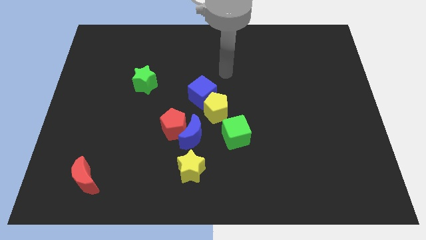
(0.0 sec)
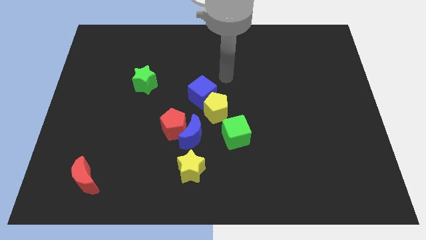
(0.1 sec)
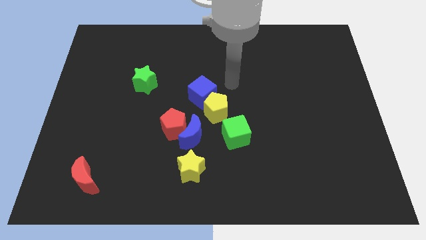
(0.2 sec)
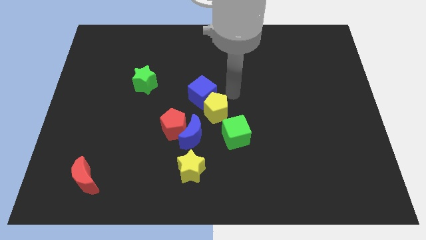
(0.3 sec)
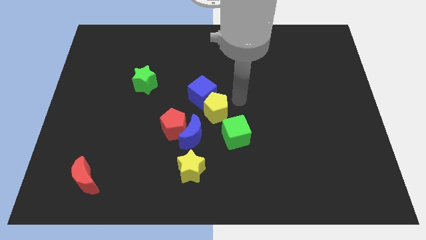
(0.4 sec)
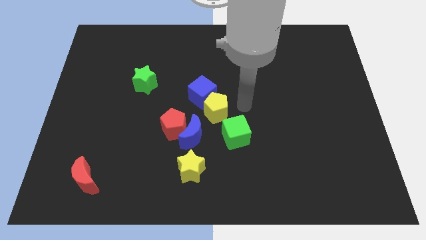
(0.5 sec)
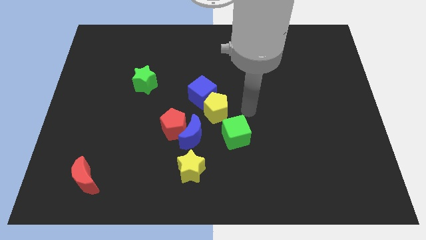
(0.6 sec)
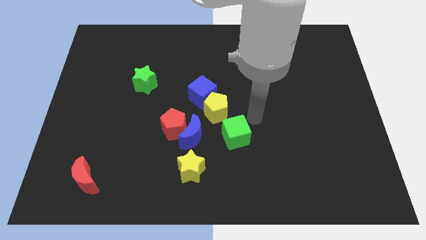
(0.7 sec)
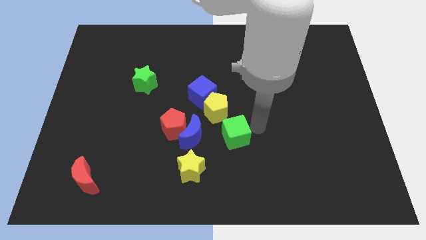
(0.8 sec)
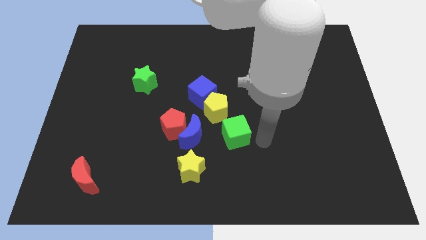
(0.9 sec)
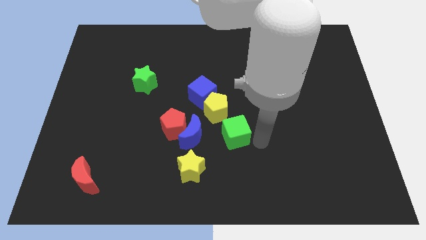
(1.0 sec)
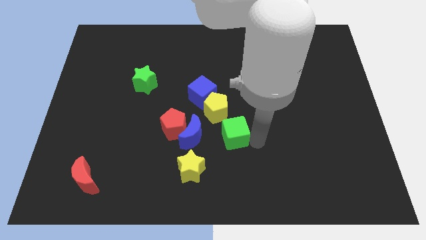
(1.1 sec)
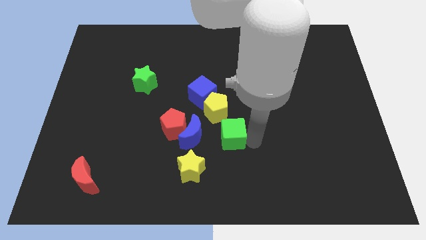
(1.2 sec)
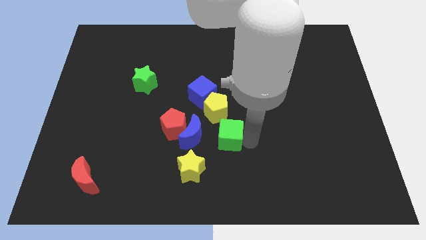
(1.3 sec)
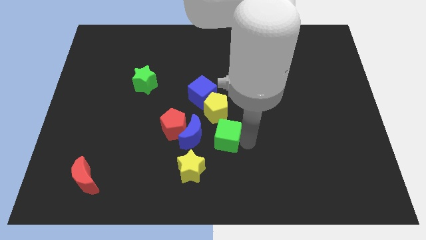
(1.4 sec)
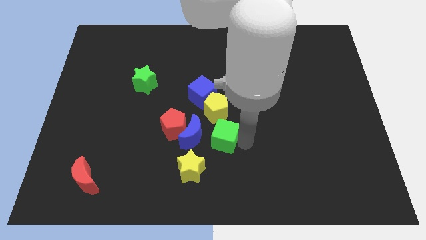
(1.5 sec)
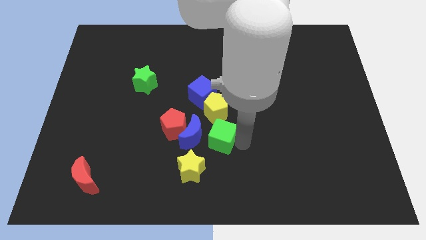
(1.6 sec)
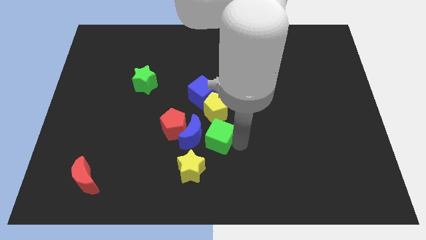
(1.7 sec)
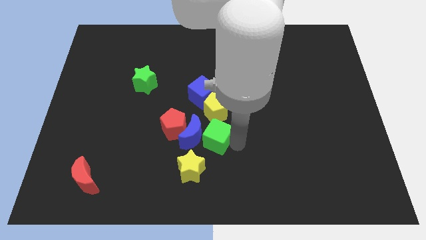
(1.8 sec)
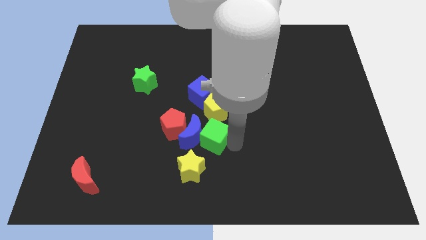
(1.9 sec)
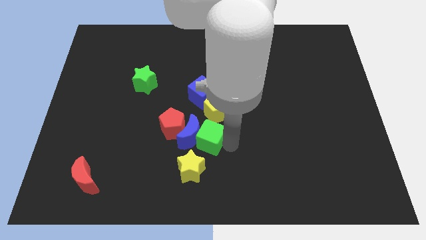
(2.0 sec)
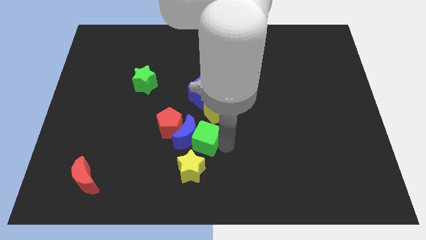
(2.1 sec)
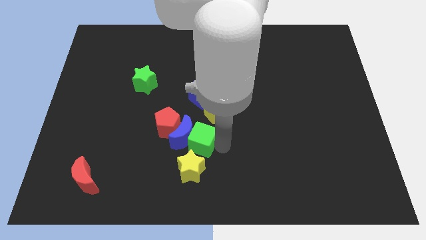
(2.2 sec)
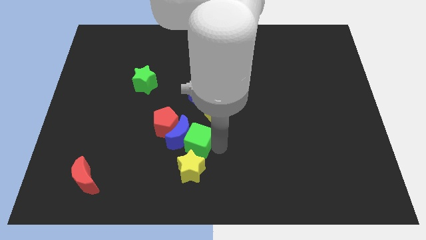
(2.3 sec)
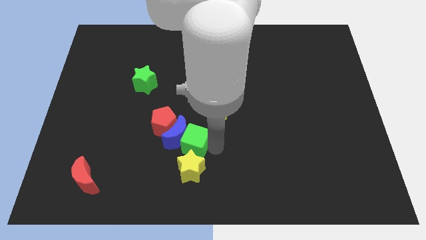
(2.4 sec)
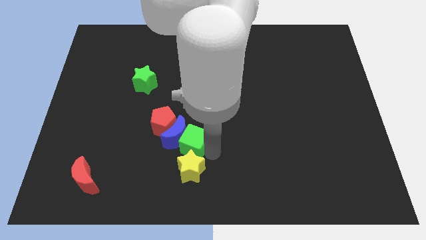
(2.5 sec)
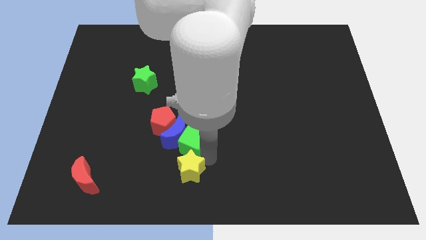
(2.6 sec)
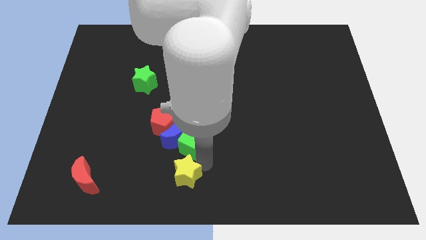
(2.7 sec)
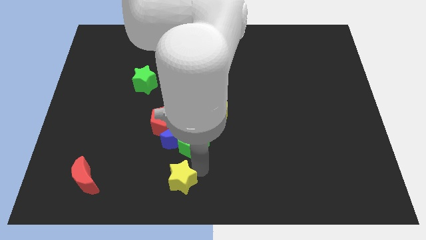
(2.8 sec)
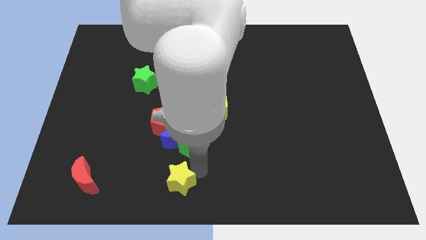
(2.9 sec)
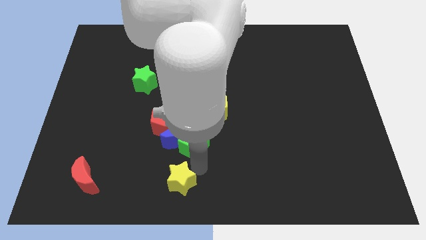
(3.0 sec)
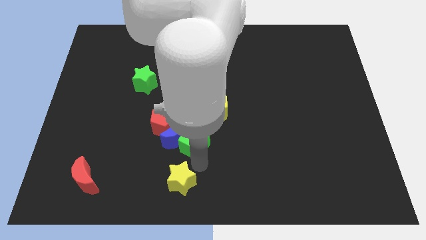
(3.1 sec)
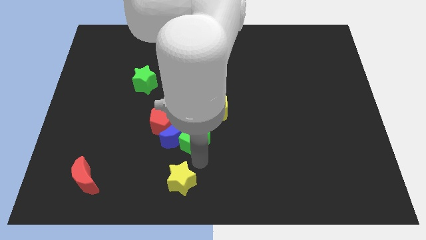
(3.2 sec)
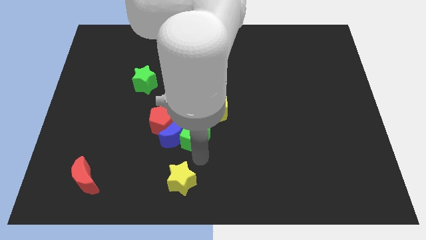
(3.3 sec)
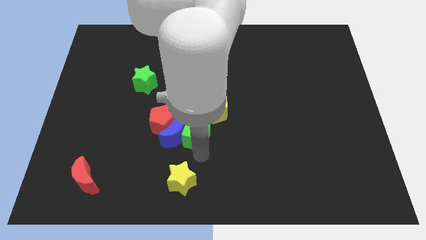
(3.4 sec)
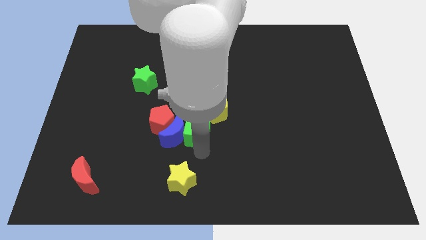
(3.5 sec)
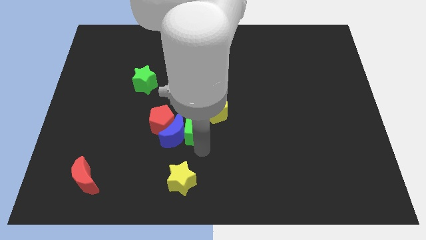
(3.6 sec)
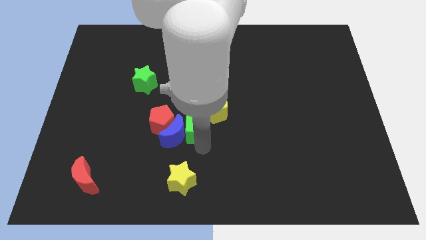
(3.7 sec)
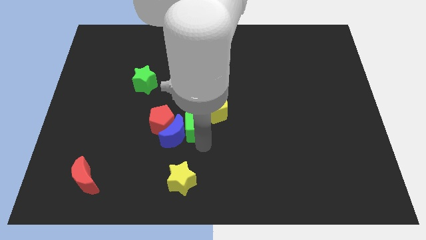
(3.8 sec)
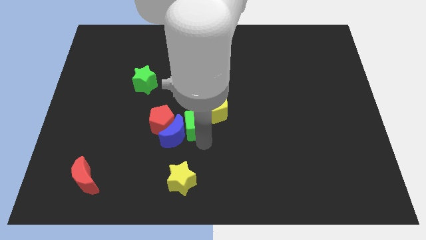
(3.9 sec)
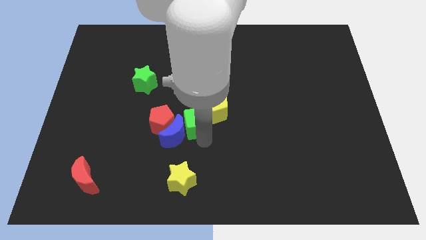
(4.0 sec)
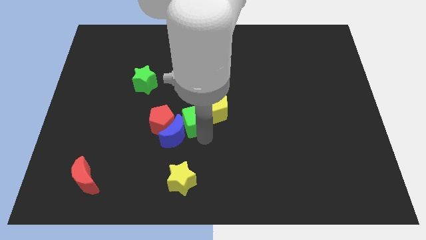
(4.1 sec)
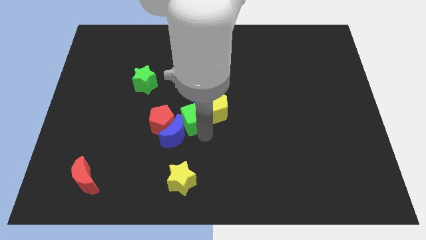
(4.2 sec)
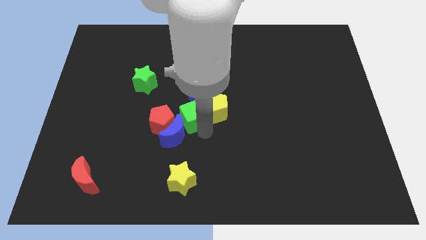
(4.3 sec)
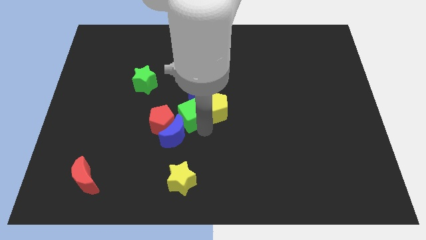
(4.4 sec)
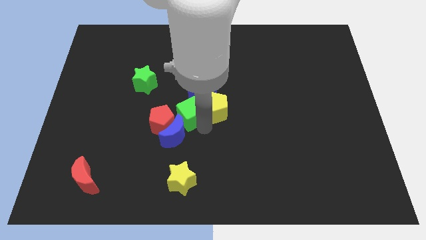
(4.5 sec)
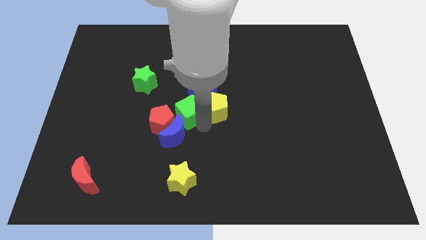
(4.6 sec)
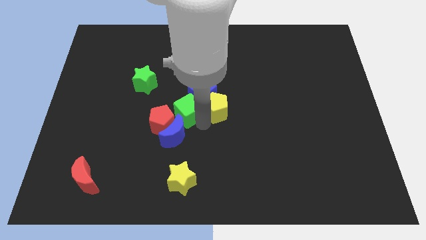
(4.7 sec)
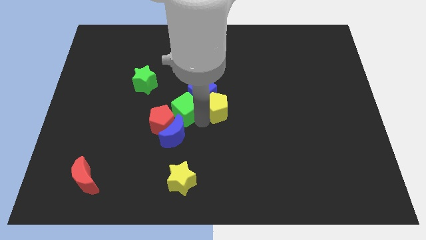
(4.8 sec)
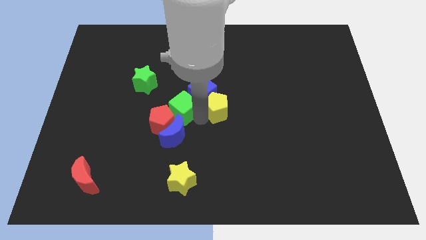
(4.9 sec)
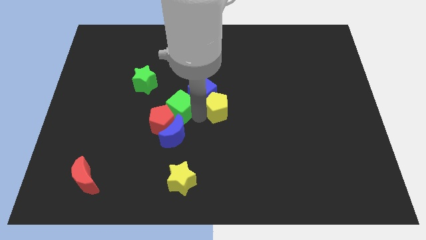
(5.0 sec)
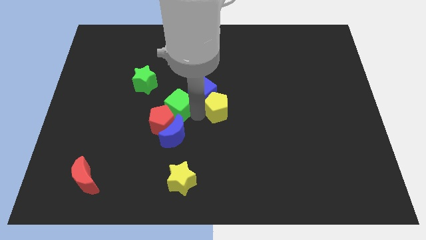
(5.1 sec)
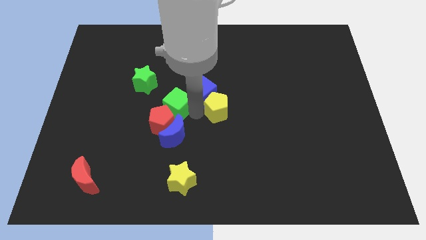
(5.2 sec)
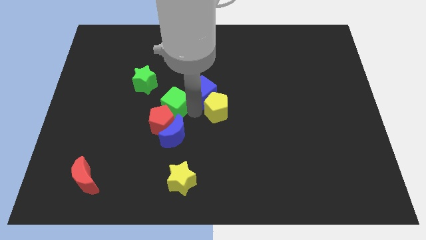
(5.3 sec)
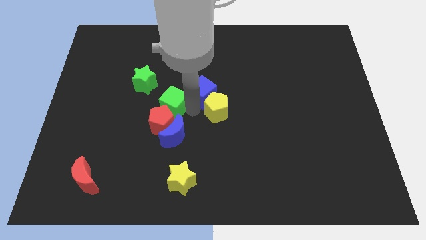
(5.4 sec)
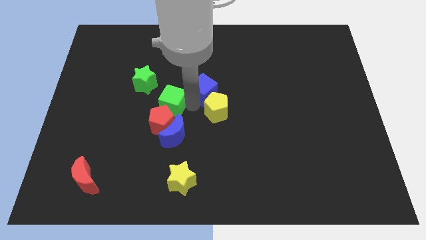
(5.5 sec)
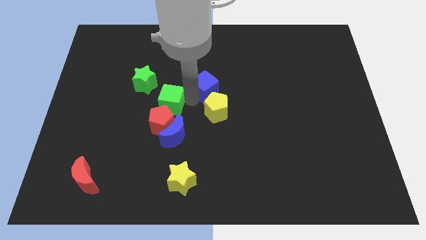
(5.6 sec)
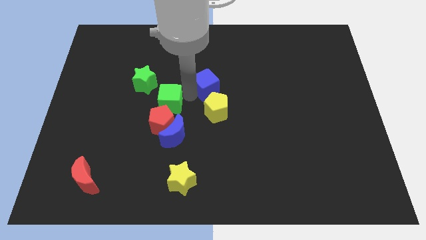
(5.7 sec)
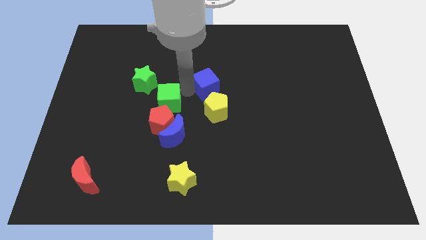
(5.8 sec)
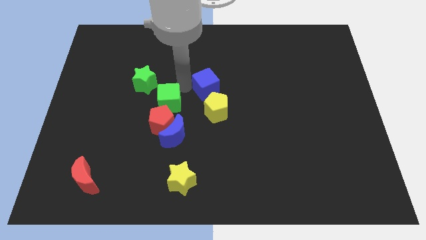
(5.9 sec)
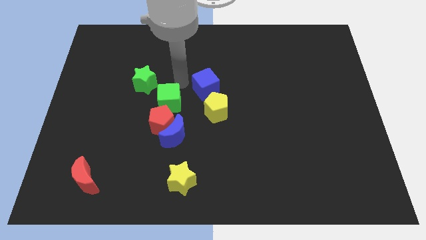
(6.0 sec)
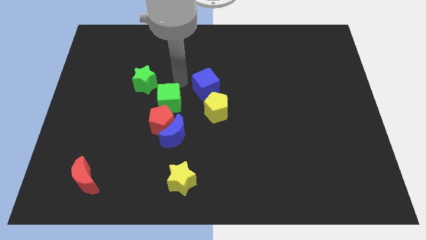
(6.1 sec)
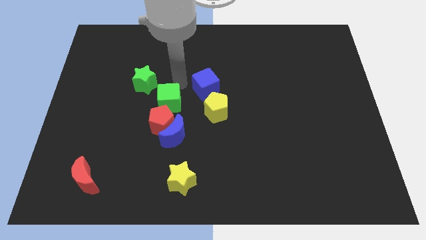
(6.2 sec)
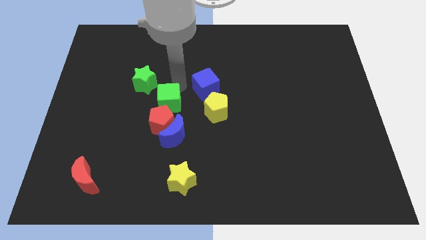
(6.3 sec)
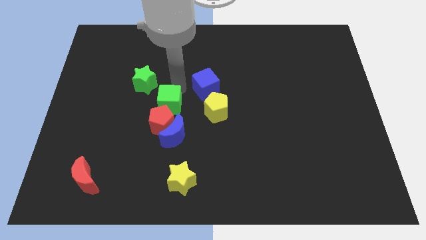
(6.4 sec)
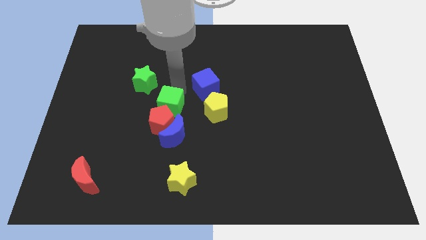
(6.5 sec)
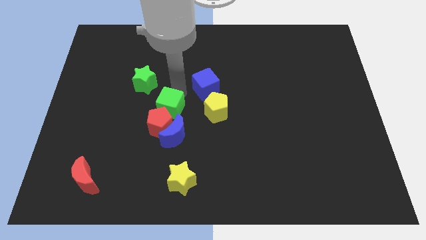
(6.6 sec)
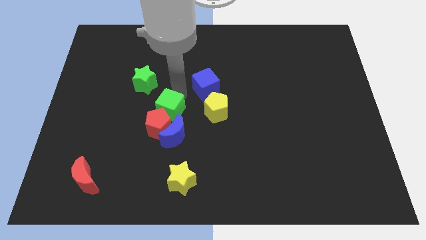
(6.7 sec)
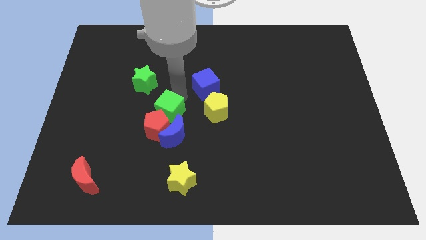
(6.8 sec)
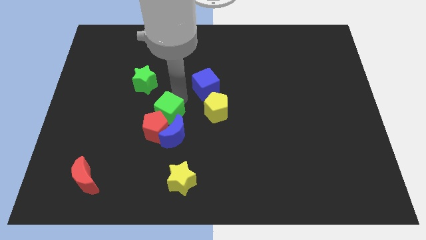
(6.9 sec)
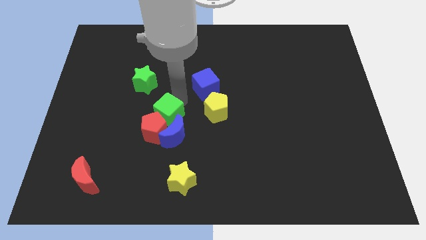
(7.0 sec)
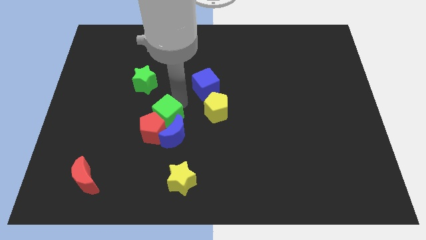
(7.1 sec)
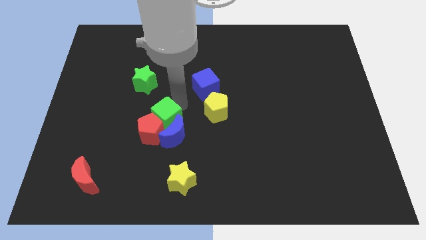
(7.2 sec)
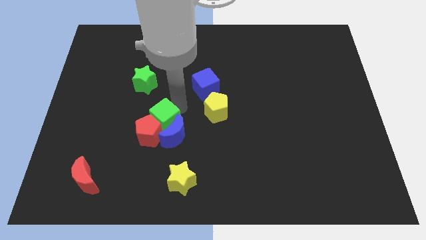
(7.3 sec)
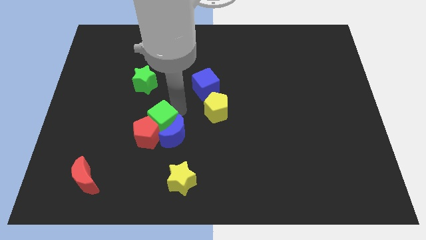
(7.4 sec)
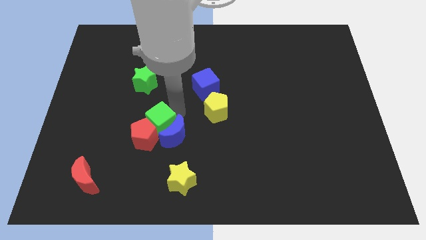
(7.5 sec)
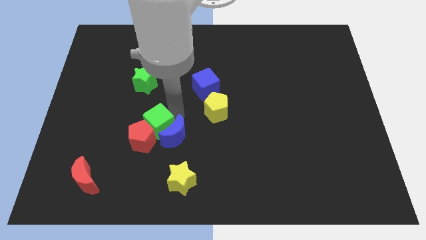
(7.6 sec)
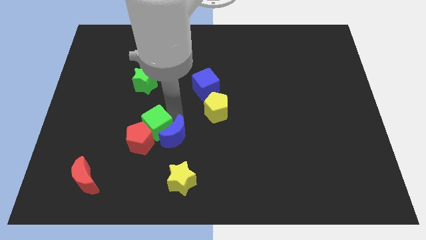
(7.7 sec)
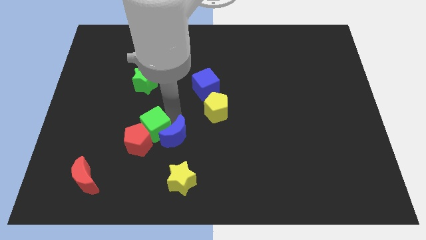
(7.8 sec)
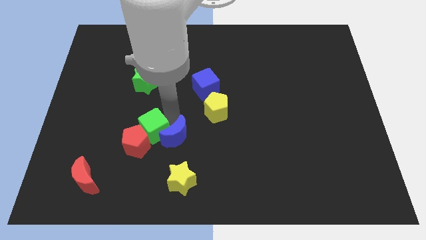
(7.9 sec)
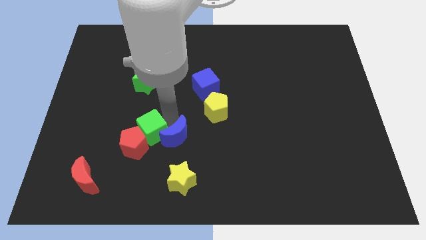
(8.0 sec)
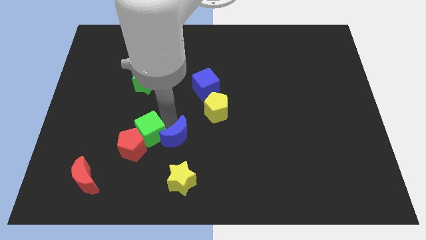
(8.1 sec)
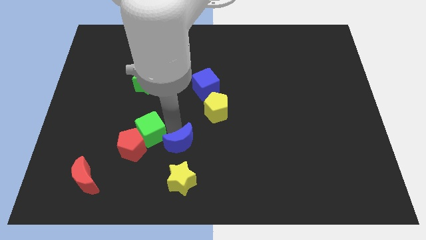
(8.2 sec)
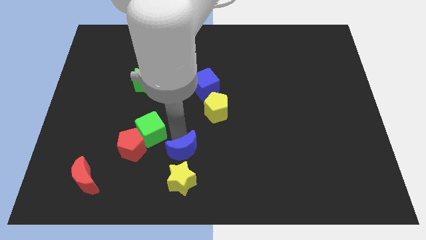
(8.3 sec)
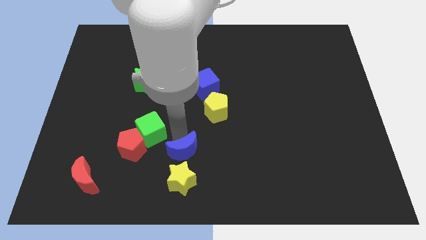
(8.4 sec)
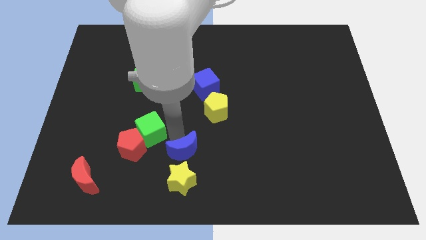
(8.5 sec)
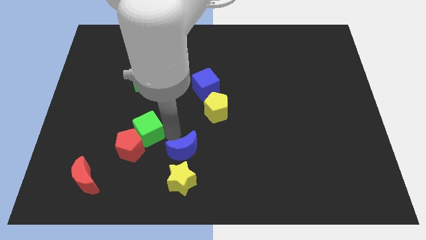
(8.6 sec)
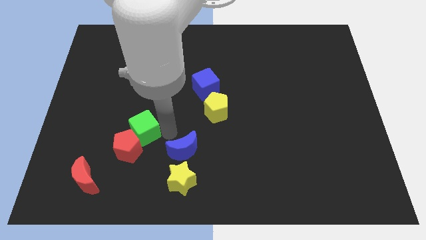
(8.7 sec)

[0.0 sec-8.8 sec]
move the green cube to the left
